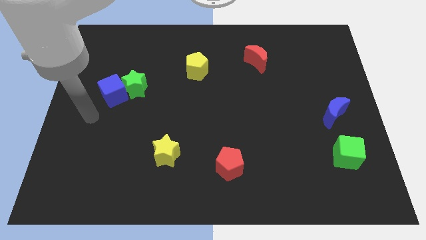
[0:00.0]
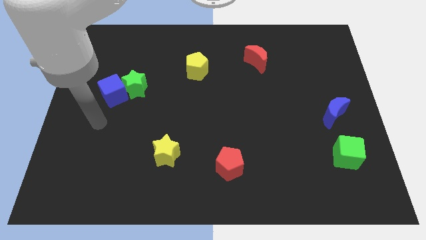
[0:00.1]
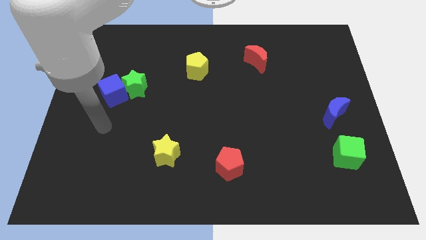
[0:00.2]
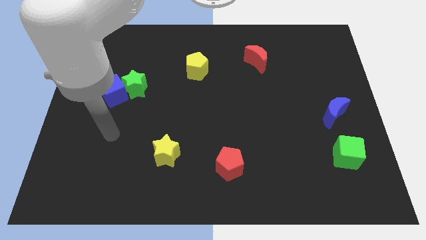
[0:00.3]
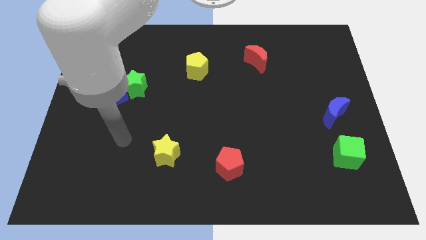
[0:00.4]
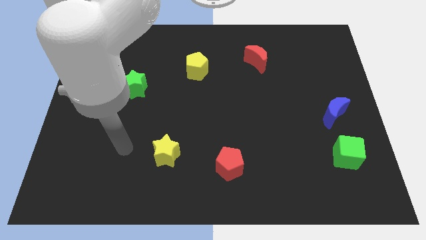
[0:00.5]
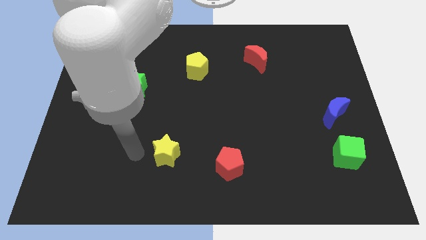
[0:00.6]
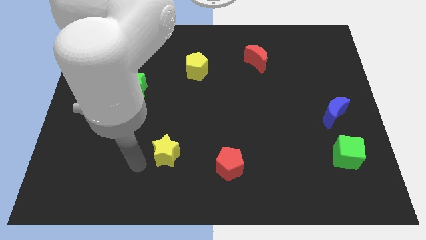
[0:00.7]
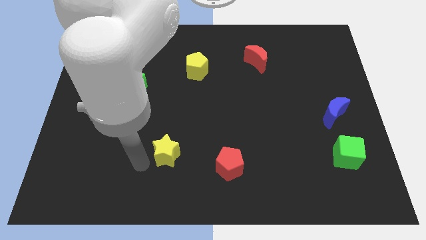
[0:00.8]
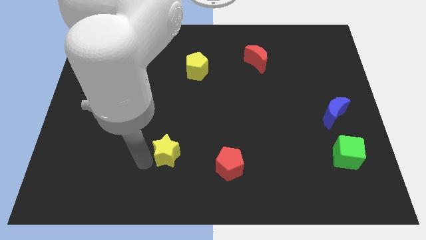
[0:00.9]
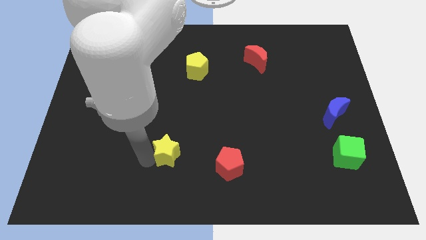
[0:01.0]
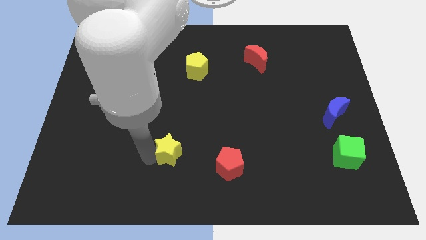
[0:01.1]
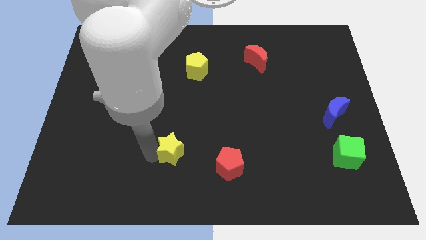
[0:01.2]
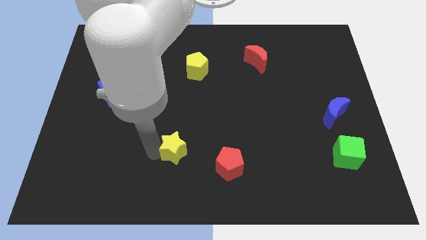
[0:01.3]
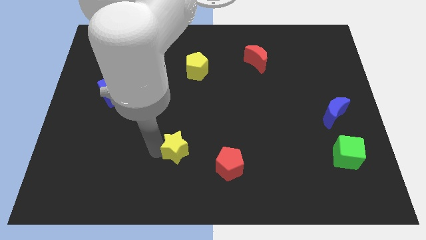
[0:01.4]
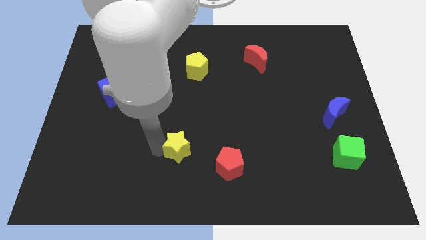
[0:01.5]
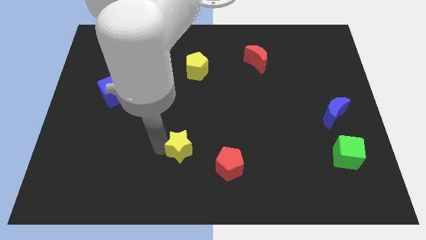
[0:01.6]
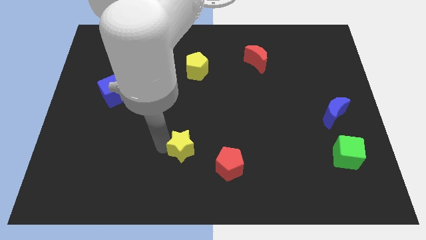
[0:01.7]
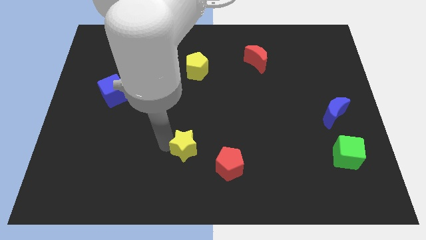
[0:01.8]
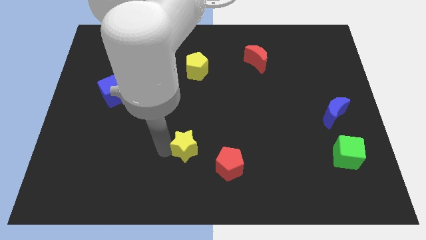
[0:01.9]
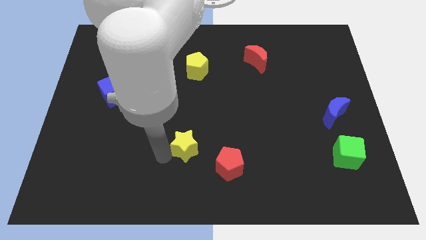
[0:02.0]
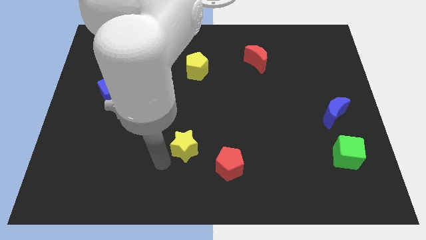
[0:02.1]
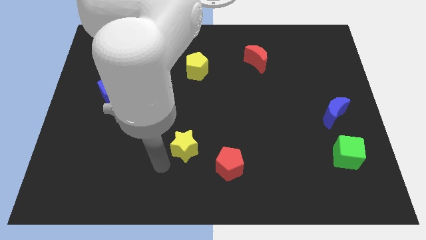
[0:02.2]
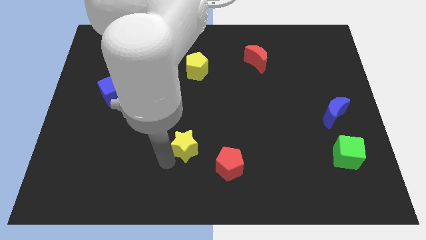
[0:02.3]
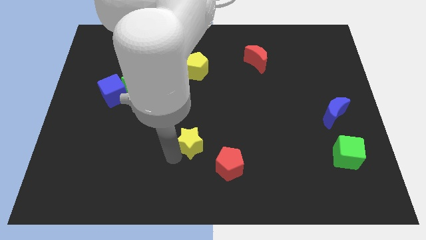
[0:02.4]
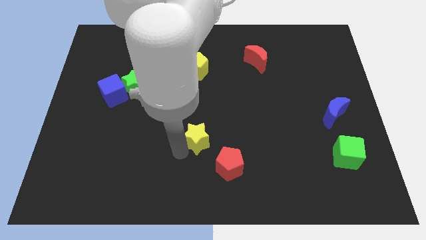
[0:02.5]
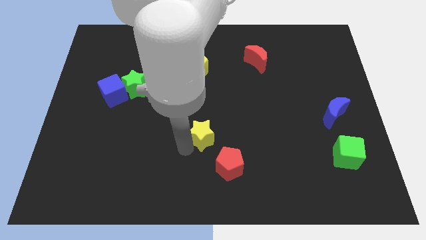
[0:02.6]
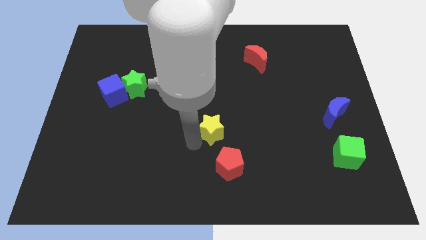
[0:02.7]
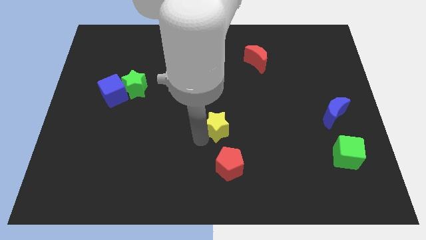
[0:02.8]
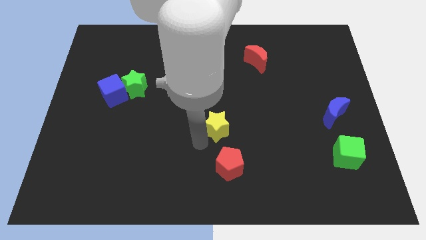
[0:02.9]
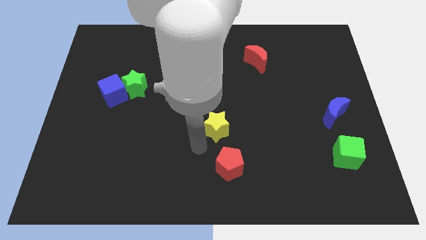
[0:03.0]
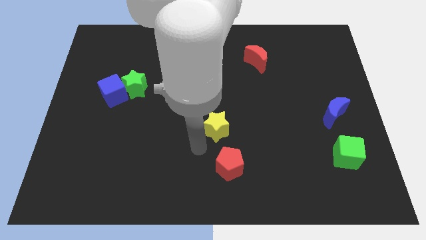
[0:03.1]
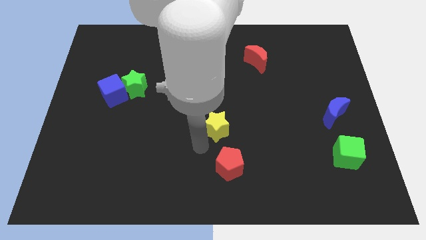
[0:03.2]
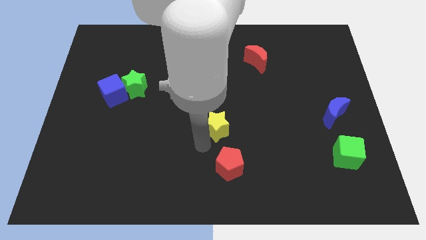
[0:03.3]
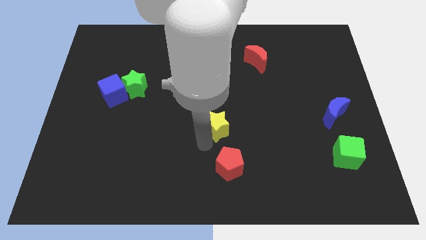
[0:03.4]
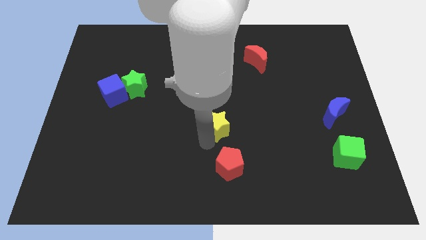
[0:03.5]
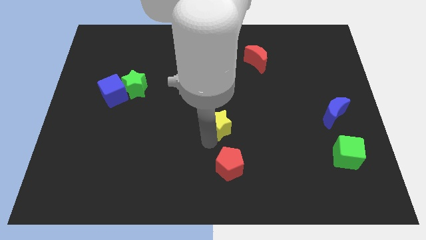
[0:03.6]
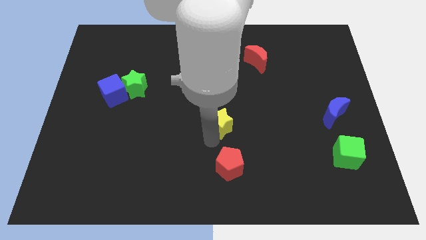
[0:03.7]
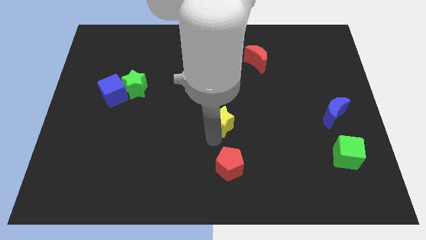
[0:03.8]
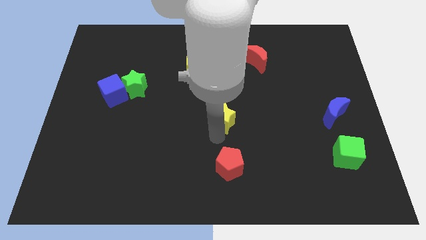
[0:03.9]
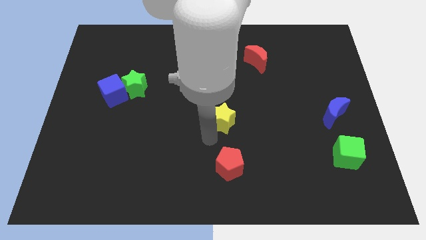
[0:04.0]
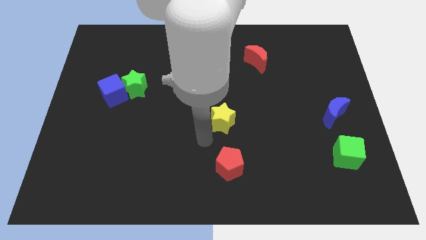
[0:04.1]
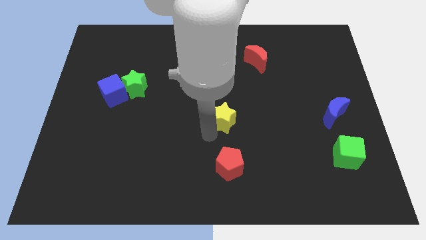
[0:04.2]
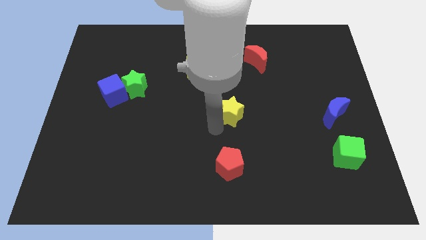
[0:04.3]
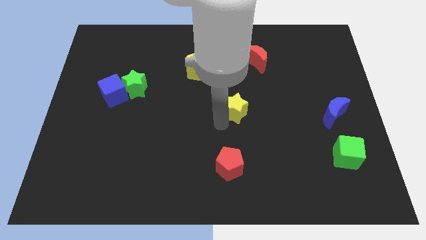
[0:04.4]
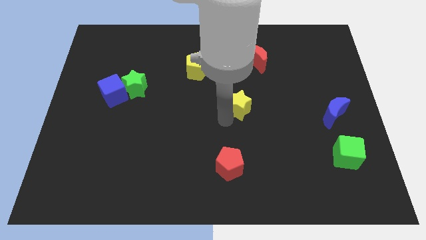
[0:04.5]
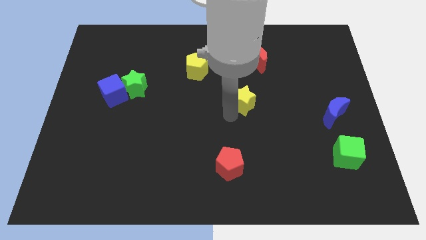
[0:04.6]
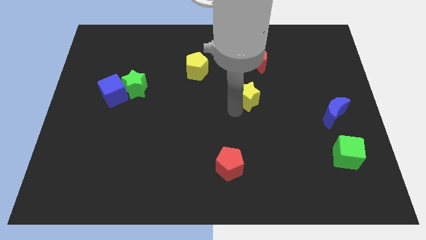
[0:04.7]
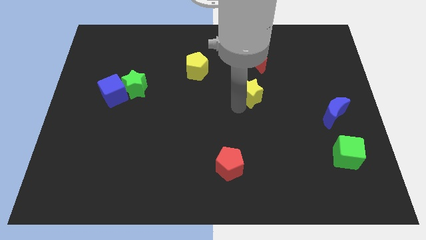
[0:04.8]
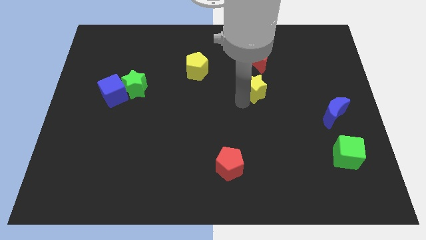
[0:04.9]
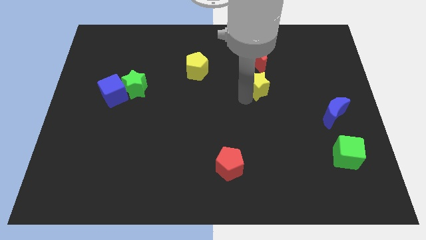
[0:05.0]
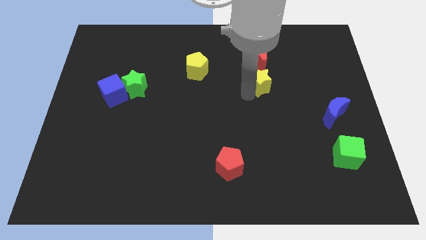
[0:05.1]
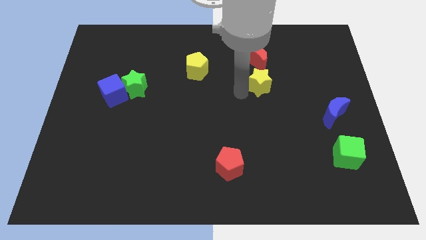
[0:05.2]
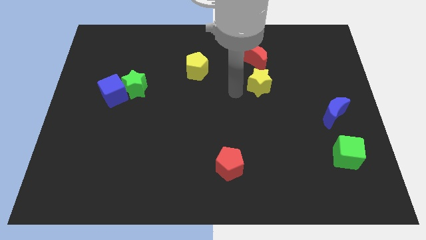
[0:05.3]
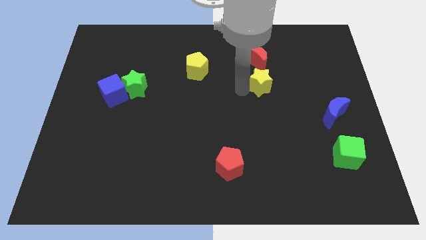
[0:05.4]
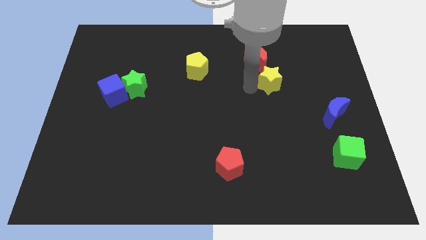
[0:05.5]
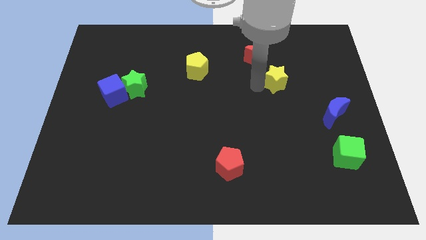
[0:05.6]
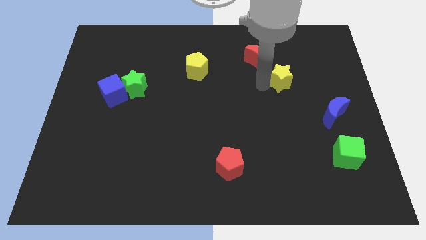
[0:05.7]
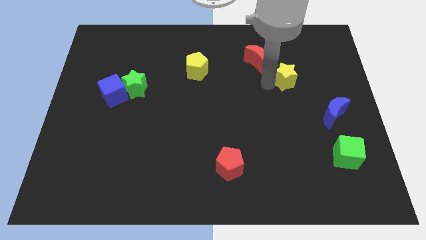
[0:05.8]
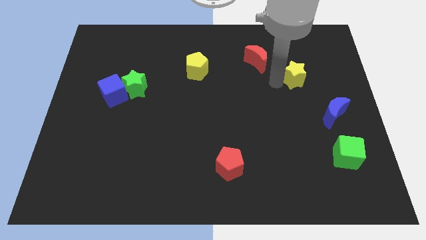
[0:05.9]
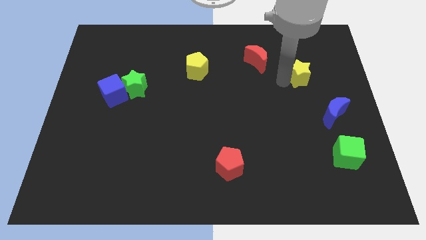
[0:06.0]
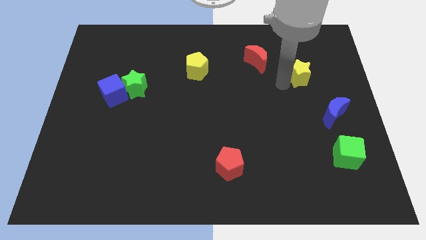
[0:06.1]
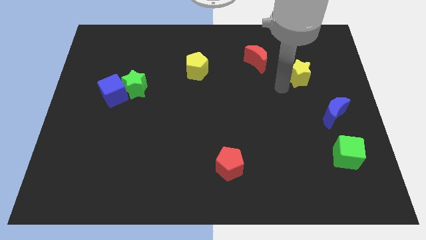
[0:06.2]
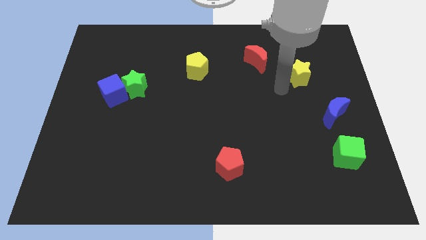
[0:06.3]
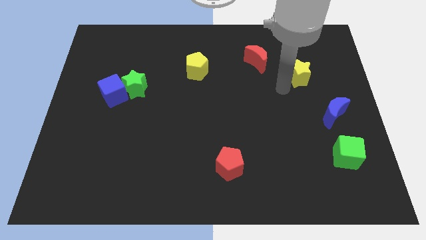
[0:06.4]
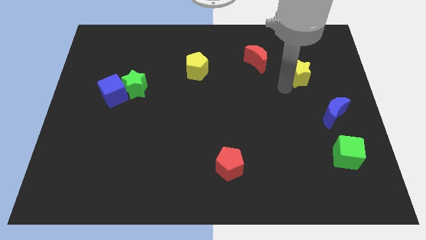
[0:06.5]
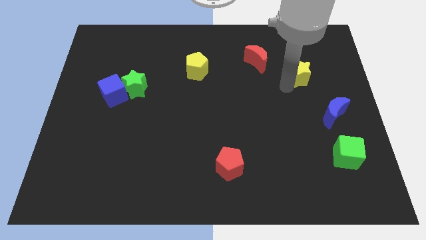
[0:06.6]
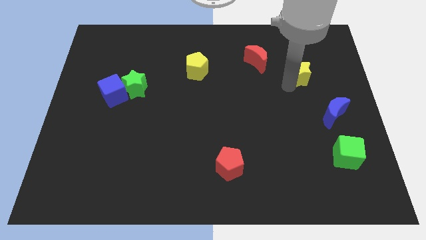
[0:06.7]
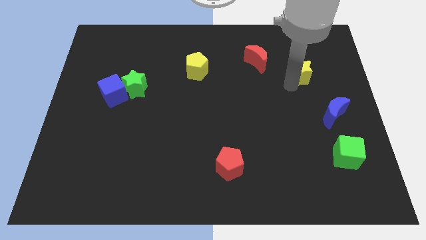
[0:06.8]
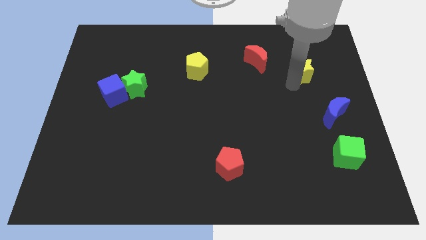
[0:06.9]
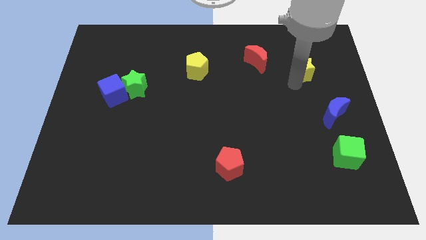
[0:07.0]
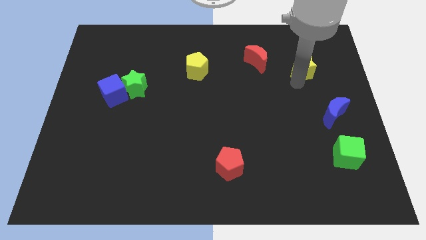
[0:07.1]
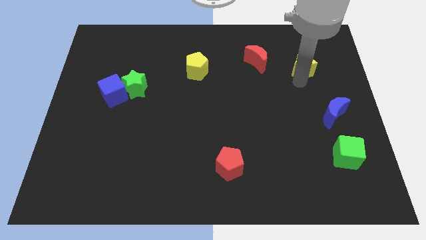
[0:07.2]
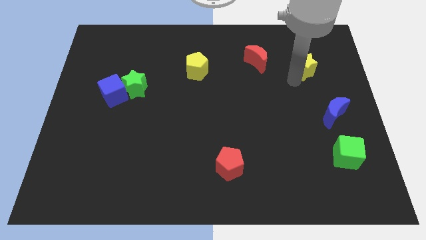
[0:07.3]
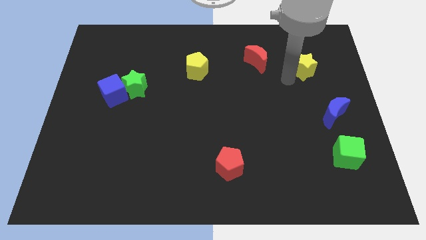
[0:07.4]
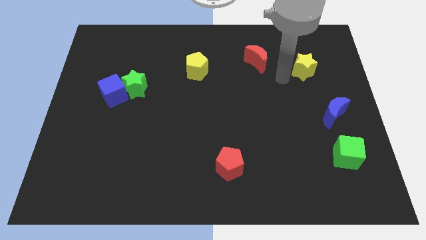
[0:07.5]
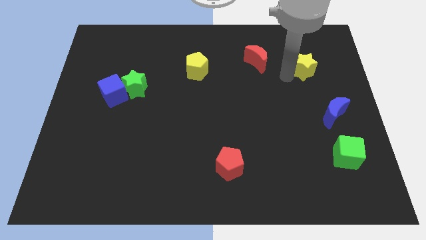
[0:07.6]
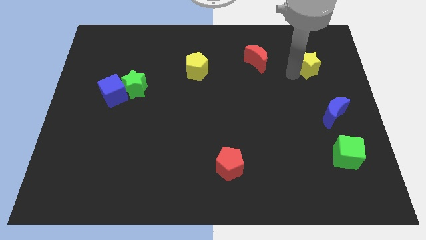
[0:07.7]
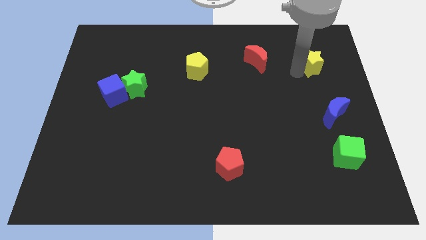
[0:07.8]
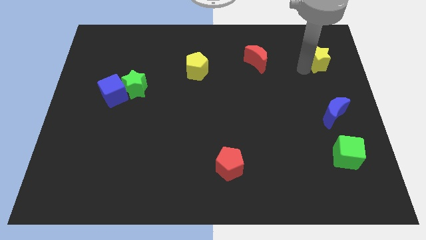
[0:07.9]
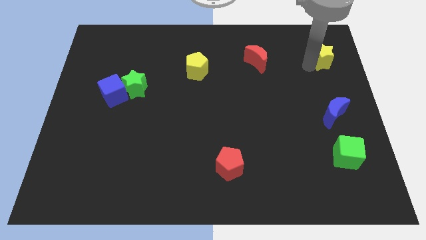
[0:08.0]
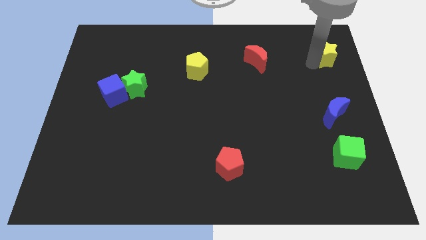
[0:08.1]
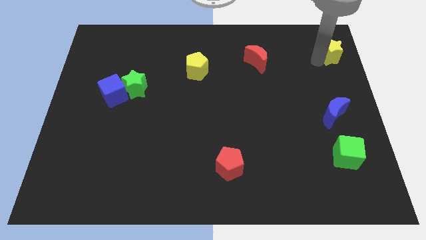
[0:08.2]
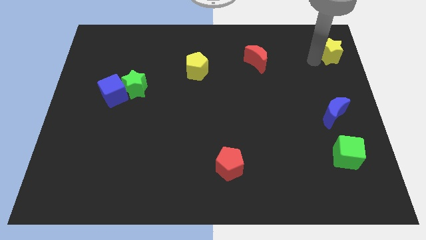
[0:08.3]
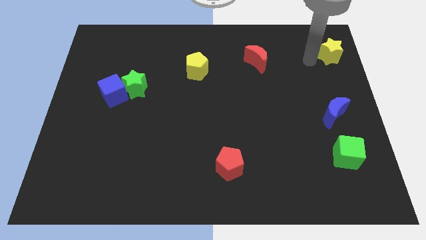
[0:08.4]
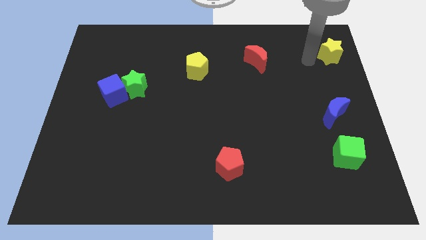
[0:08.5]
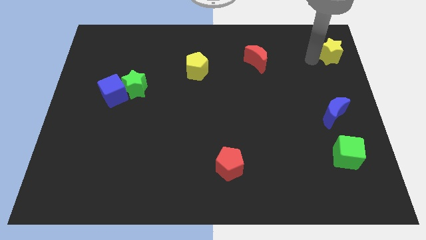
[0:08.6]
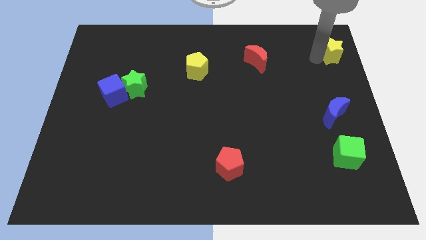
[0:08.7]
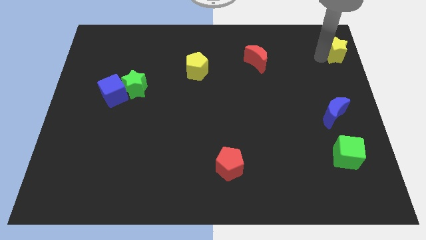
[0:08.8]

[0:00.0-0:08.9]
move the yellow star to the top right corner
